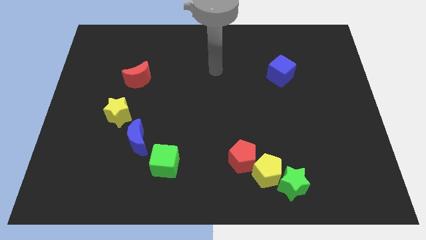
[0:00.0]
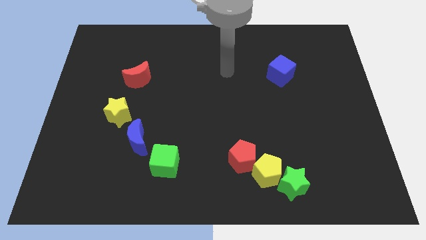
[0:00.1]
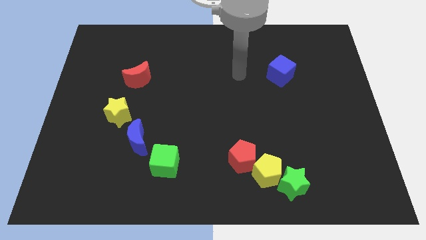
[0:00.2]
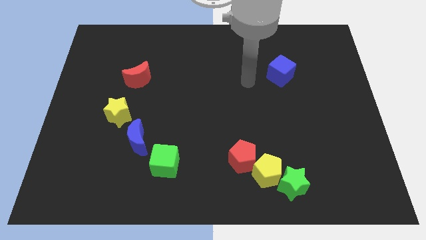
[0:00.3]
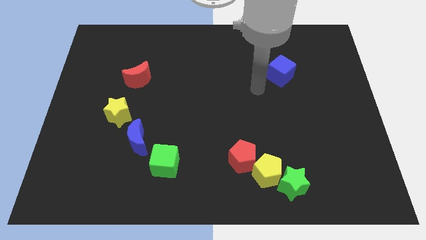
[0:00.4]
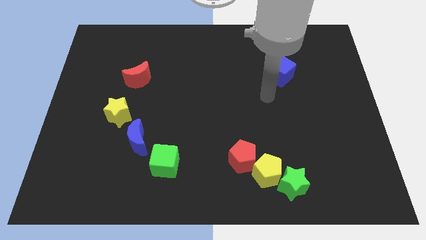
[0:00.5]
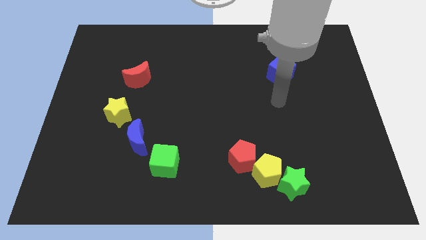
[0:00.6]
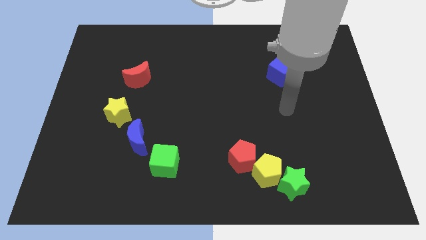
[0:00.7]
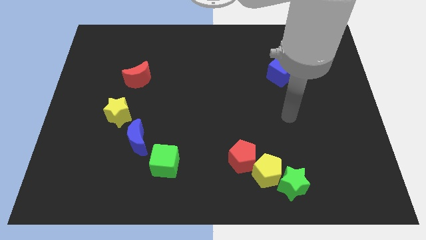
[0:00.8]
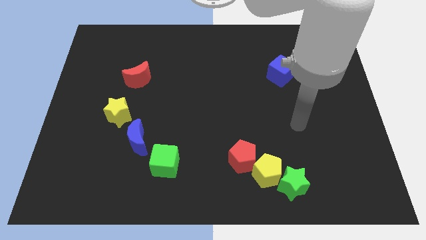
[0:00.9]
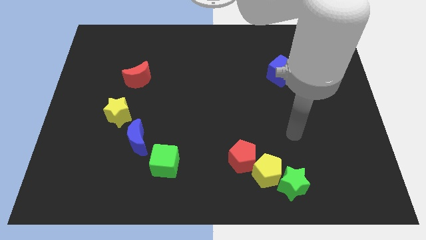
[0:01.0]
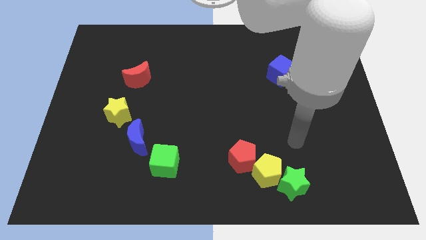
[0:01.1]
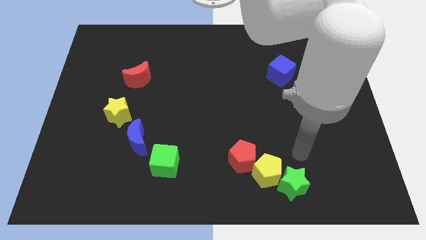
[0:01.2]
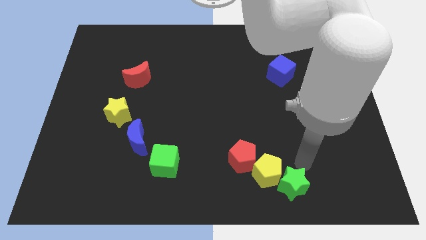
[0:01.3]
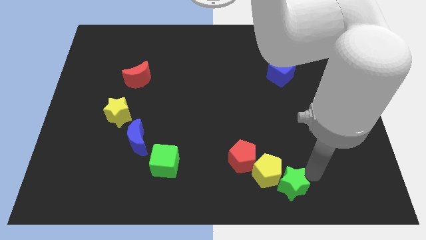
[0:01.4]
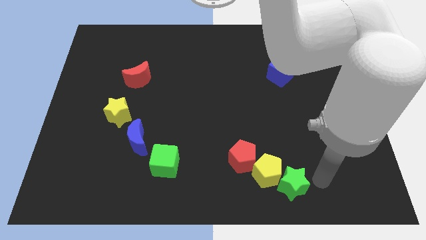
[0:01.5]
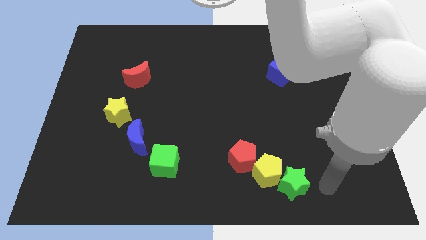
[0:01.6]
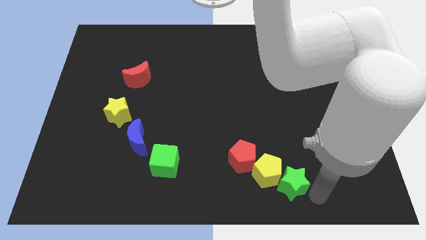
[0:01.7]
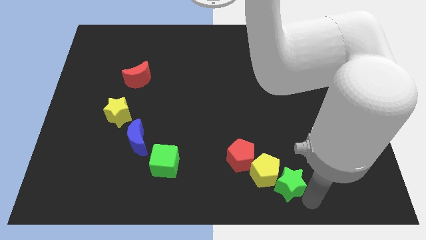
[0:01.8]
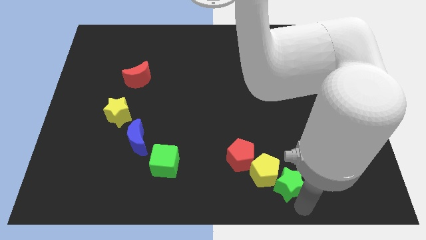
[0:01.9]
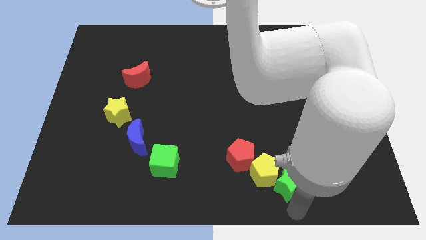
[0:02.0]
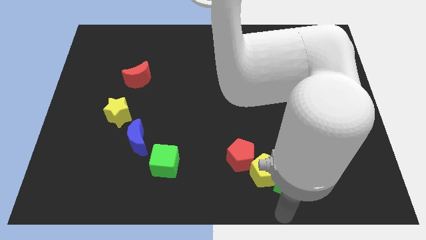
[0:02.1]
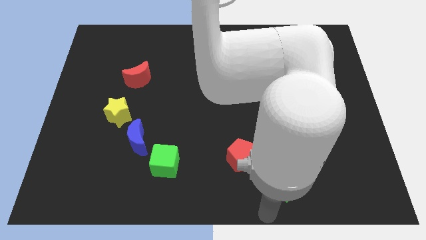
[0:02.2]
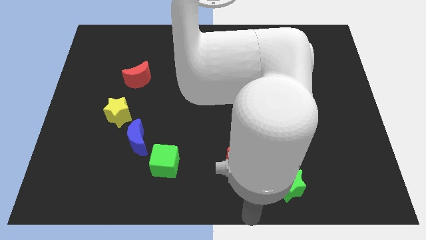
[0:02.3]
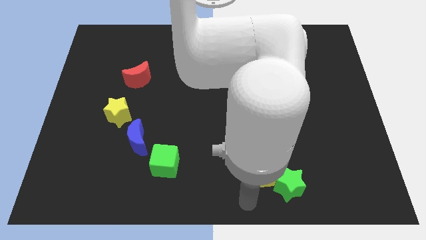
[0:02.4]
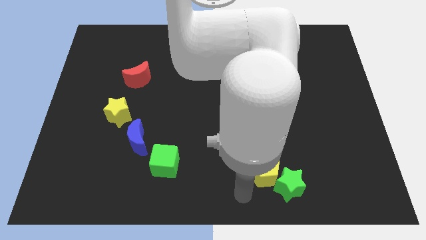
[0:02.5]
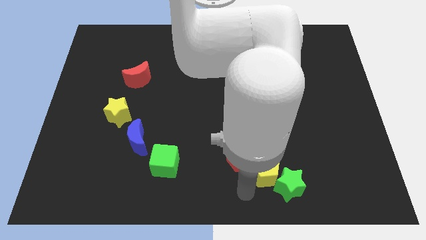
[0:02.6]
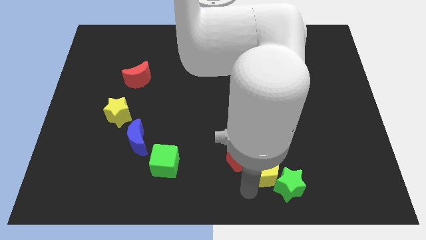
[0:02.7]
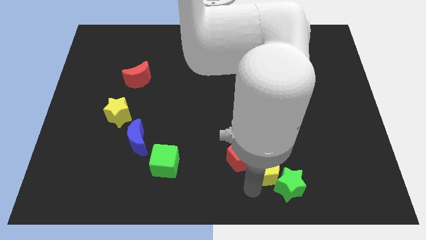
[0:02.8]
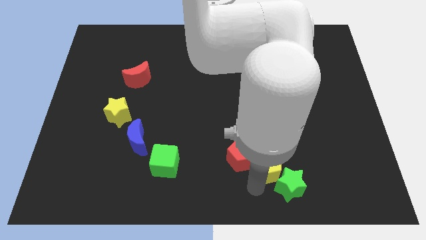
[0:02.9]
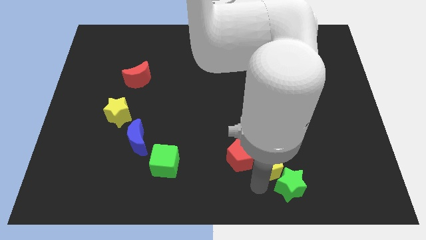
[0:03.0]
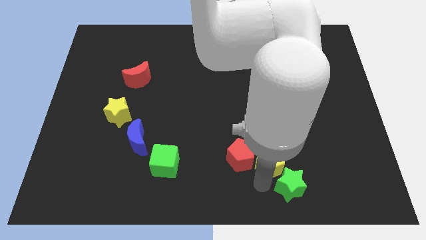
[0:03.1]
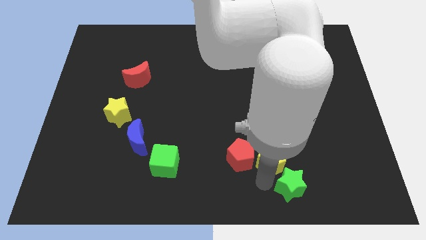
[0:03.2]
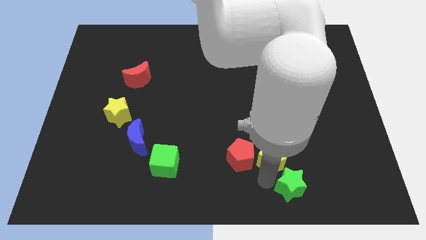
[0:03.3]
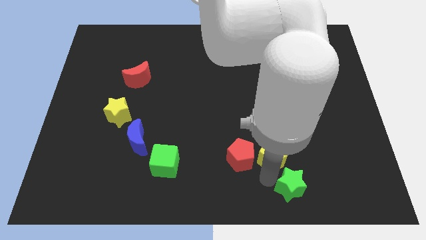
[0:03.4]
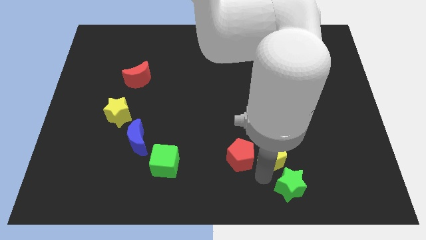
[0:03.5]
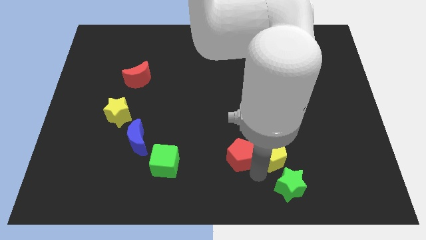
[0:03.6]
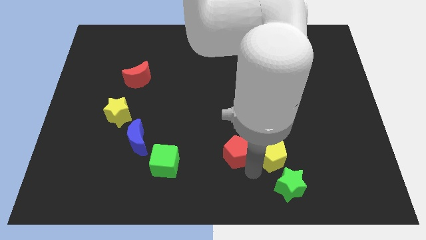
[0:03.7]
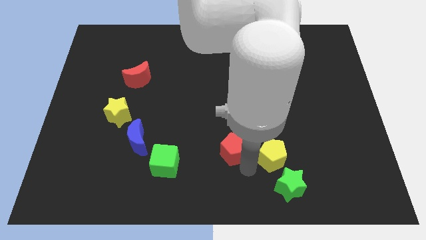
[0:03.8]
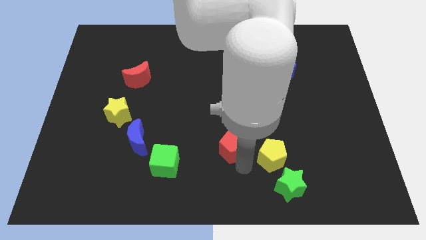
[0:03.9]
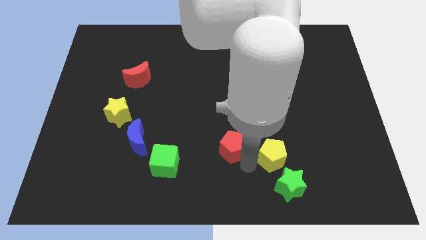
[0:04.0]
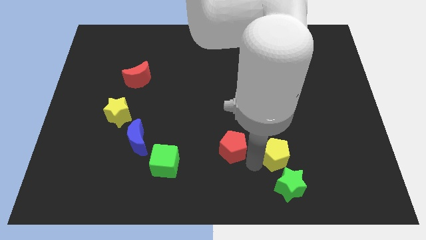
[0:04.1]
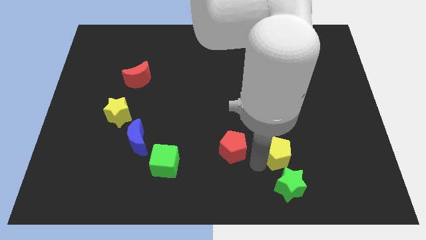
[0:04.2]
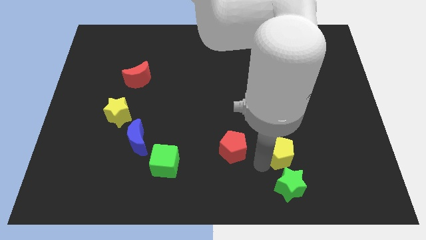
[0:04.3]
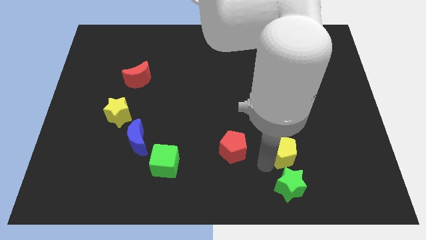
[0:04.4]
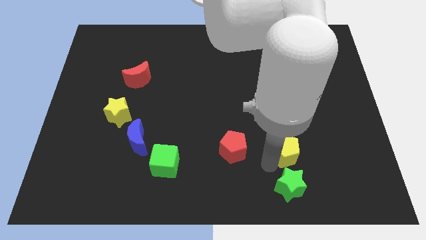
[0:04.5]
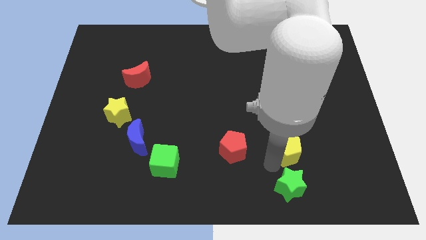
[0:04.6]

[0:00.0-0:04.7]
slide the yellow pentagon diagonally upwards and to the right a little bit

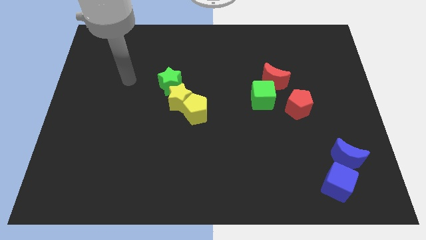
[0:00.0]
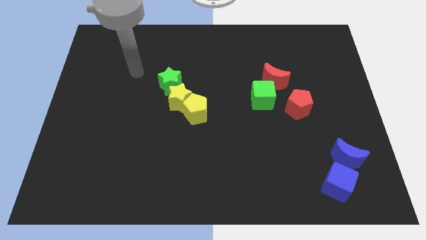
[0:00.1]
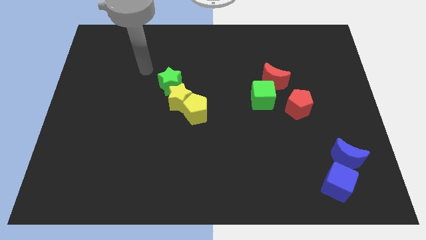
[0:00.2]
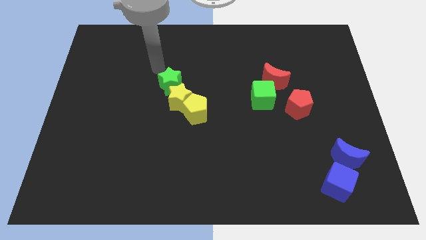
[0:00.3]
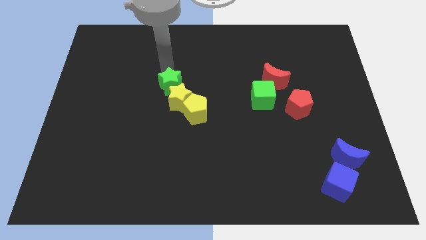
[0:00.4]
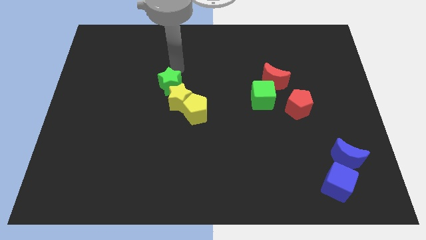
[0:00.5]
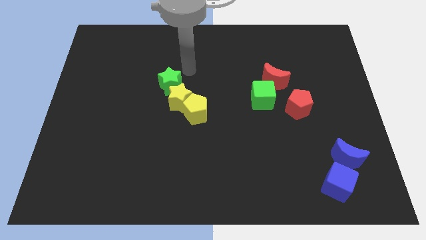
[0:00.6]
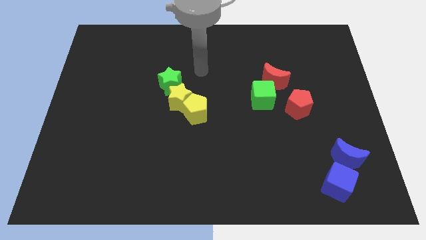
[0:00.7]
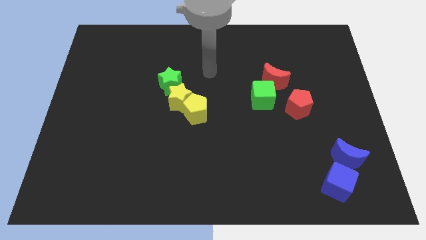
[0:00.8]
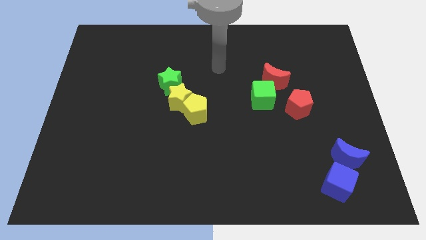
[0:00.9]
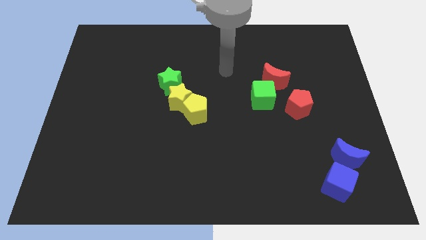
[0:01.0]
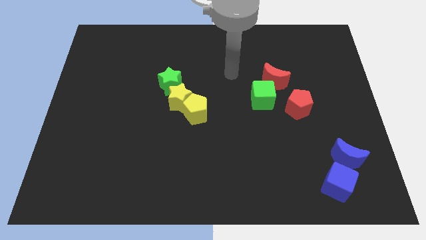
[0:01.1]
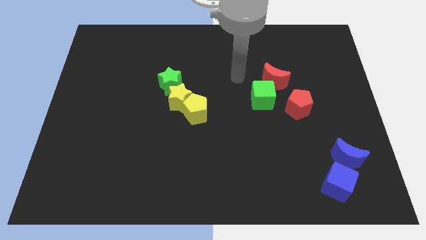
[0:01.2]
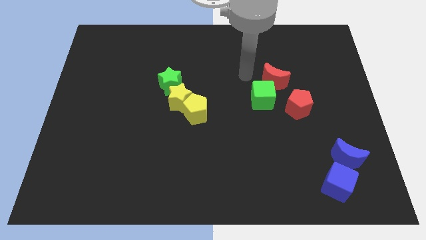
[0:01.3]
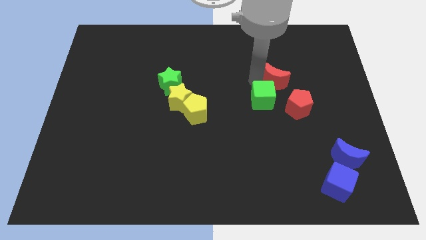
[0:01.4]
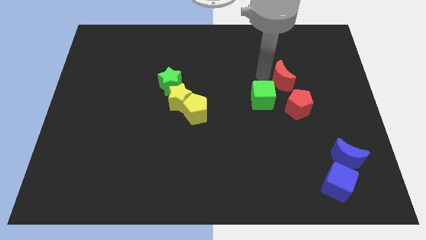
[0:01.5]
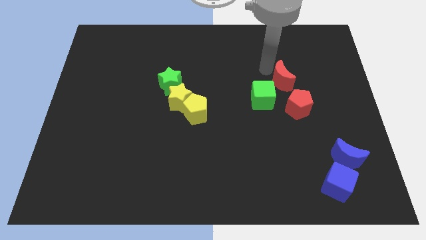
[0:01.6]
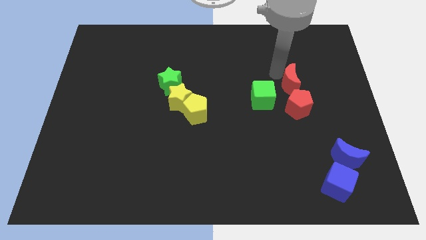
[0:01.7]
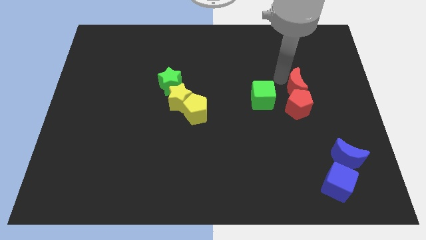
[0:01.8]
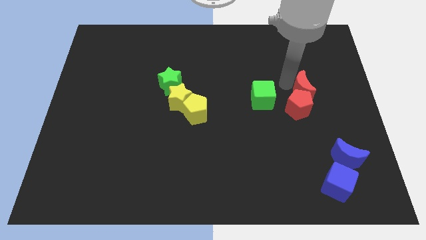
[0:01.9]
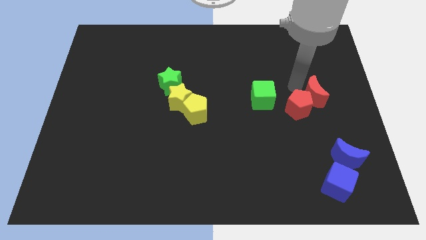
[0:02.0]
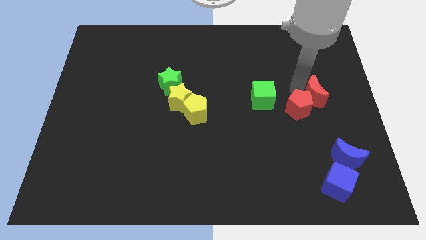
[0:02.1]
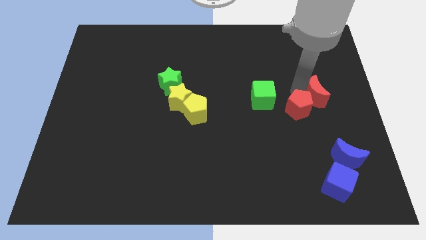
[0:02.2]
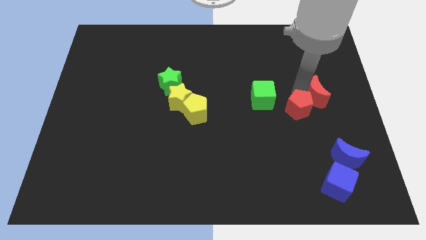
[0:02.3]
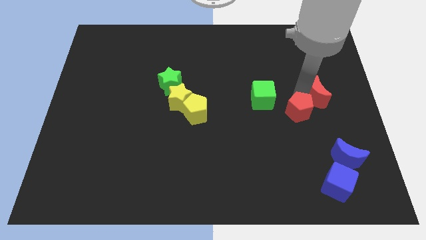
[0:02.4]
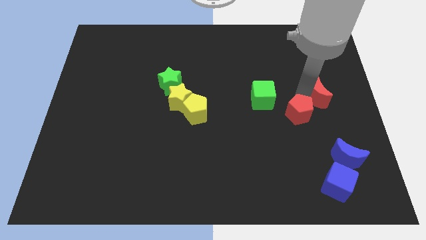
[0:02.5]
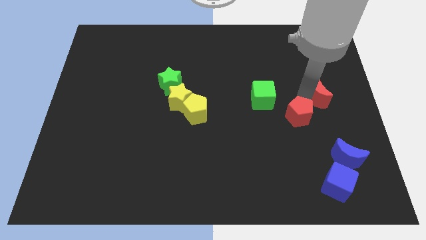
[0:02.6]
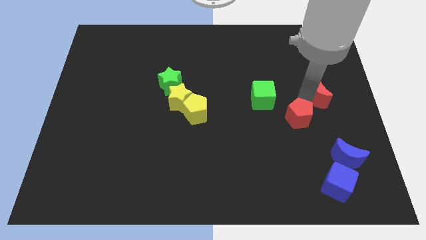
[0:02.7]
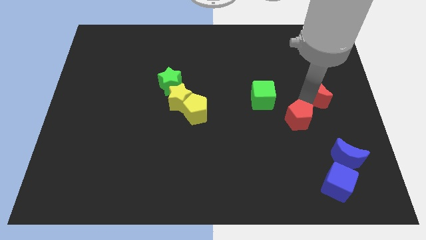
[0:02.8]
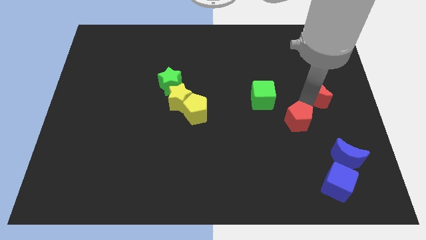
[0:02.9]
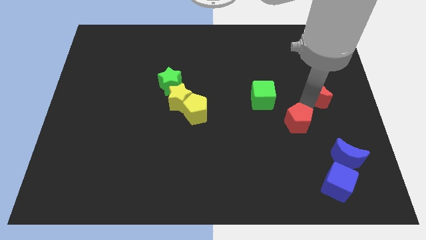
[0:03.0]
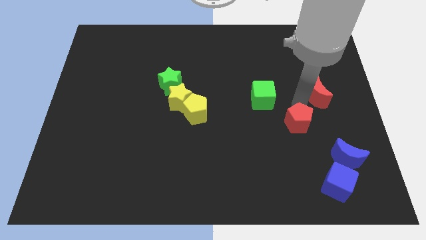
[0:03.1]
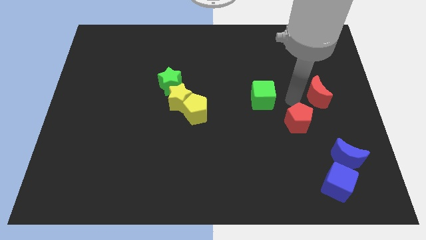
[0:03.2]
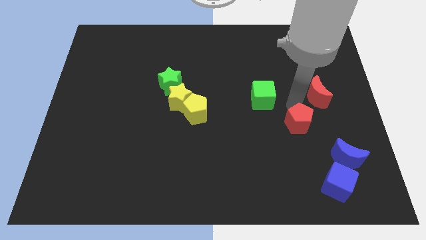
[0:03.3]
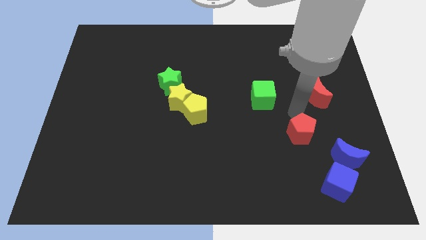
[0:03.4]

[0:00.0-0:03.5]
move the red pentagon down a little
